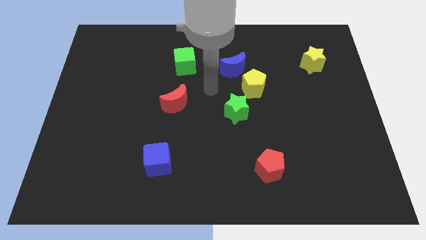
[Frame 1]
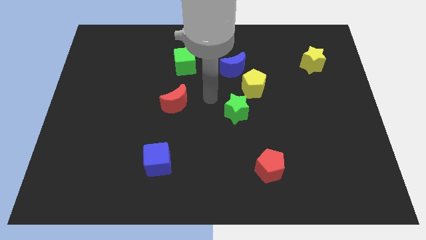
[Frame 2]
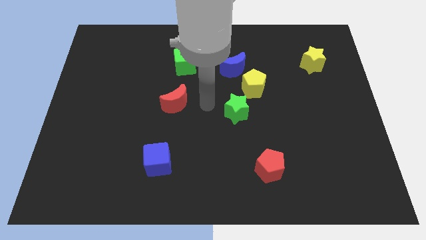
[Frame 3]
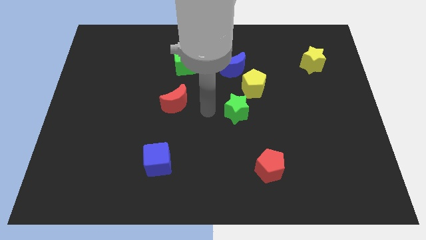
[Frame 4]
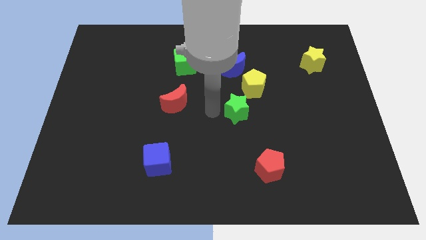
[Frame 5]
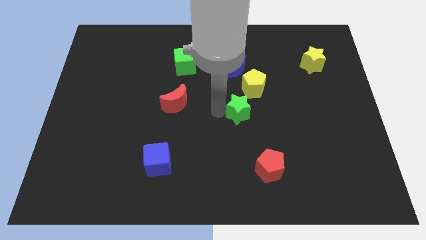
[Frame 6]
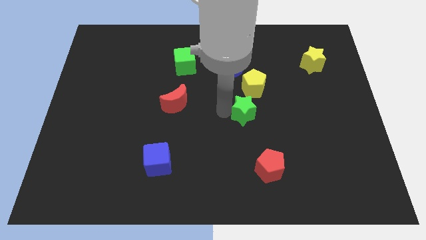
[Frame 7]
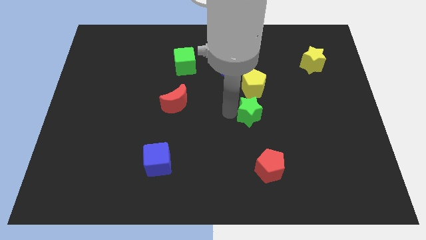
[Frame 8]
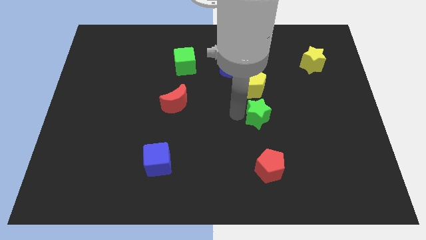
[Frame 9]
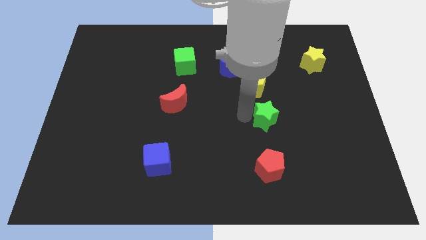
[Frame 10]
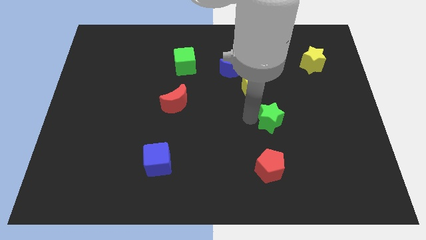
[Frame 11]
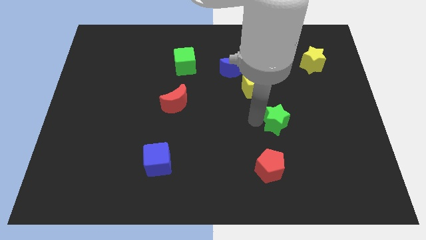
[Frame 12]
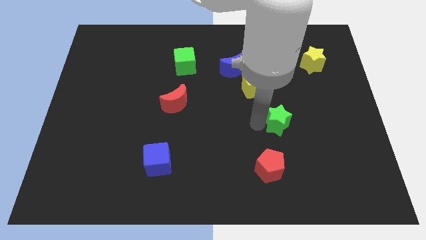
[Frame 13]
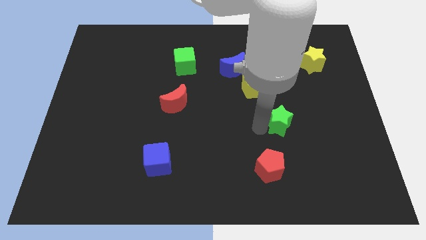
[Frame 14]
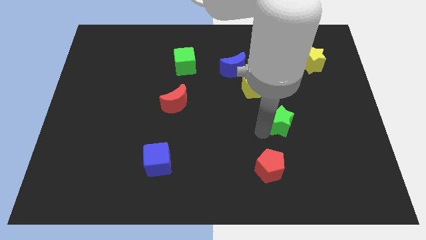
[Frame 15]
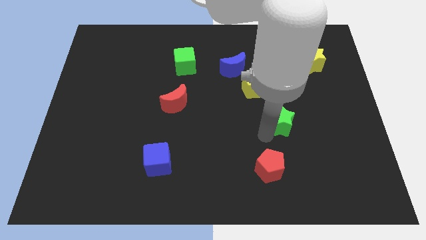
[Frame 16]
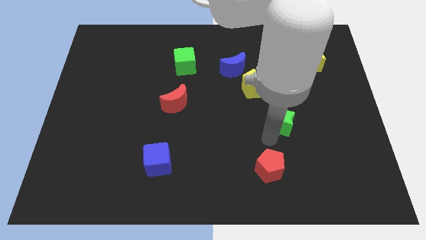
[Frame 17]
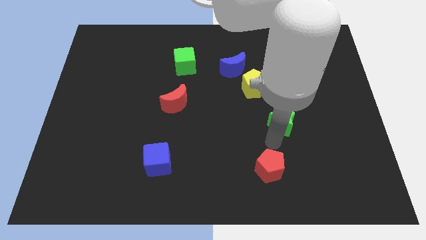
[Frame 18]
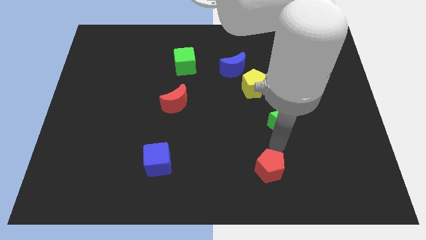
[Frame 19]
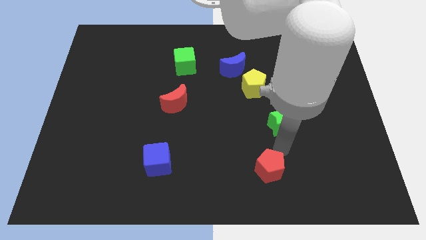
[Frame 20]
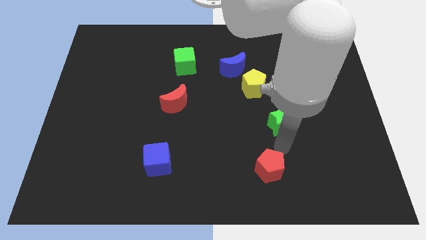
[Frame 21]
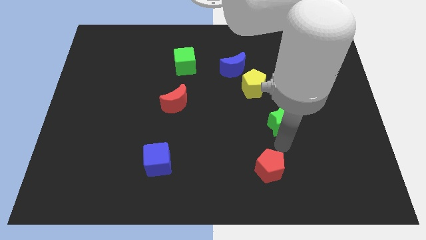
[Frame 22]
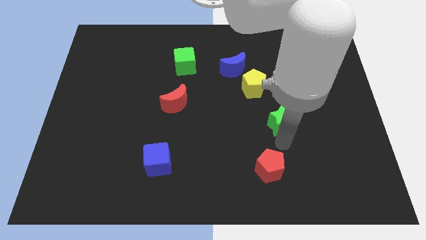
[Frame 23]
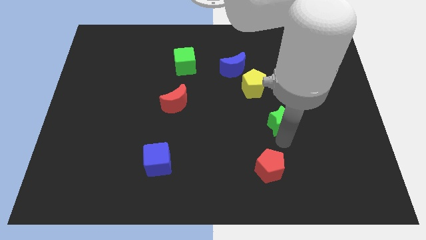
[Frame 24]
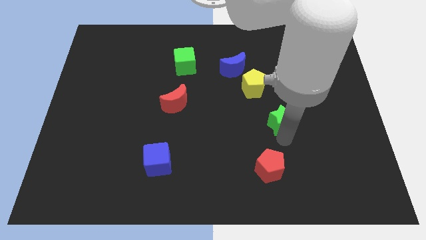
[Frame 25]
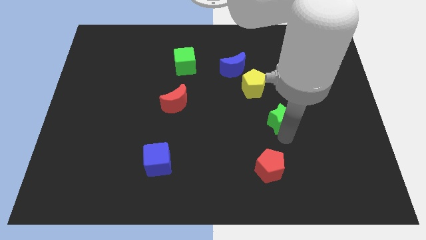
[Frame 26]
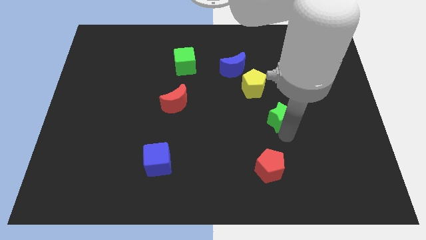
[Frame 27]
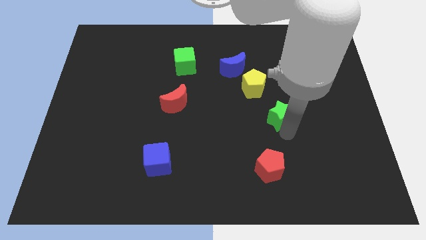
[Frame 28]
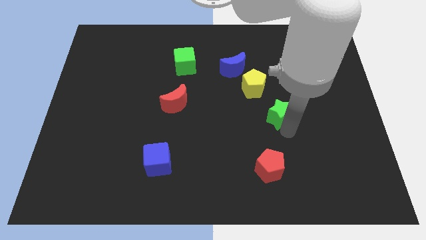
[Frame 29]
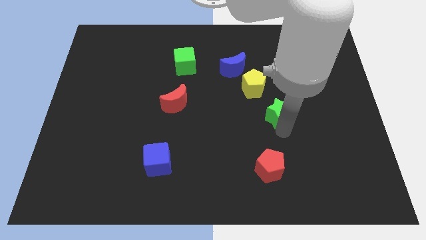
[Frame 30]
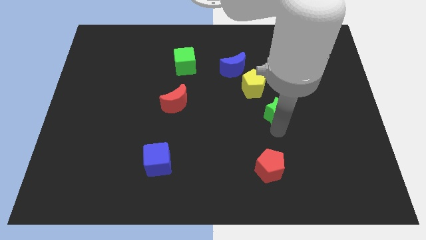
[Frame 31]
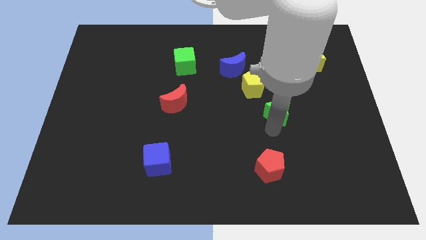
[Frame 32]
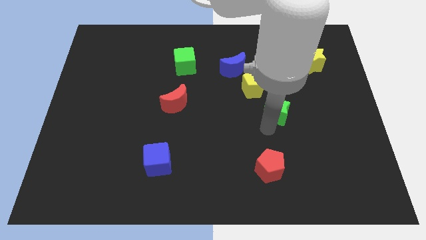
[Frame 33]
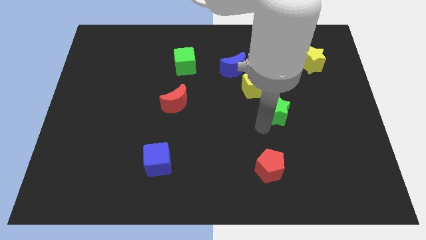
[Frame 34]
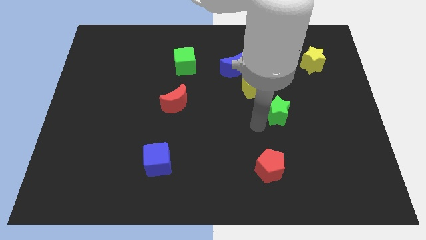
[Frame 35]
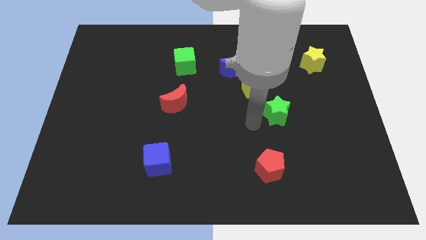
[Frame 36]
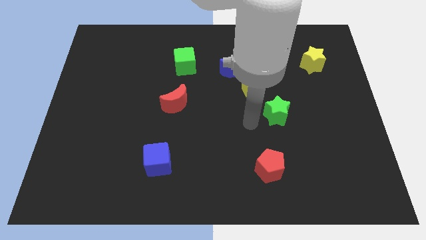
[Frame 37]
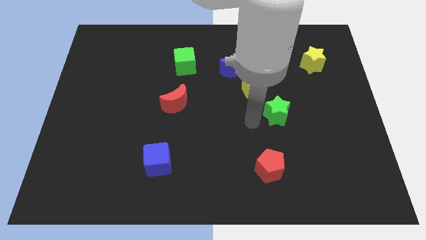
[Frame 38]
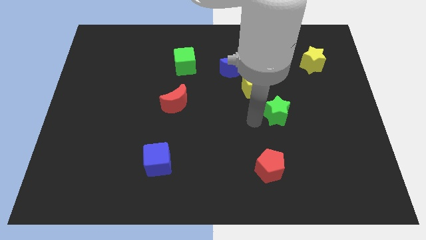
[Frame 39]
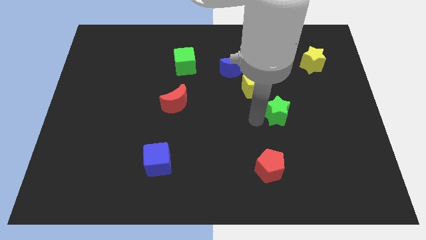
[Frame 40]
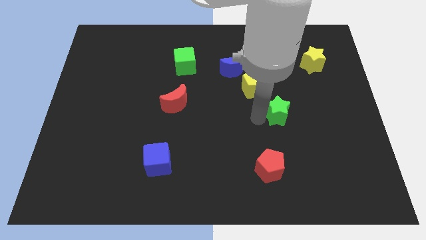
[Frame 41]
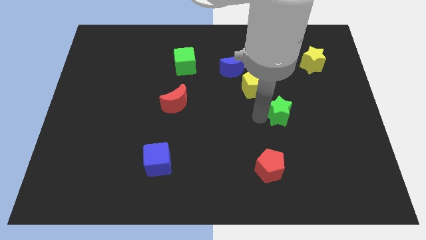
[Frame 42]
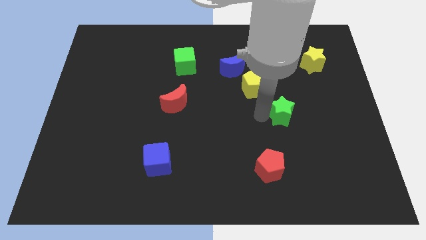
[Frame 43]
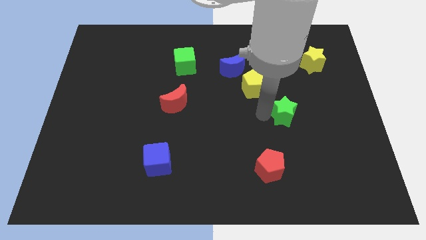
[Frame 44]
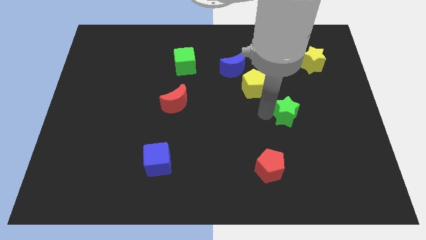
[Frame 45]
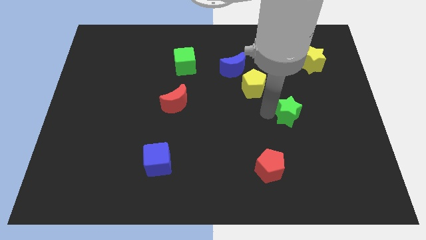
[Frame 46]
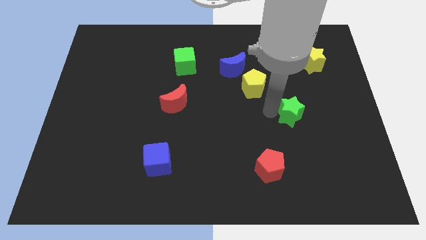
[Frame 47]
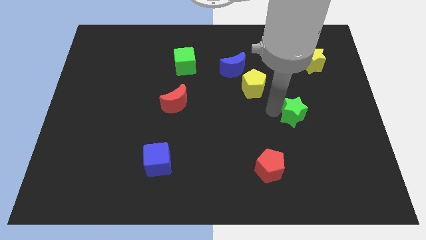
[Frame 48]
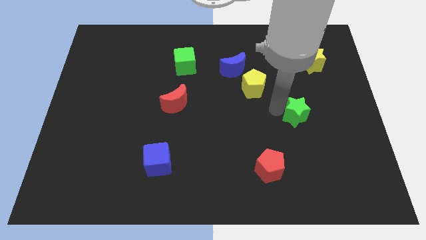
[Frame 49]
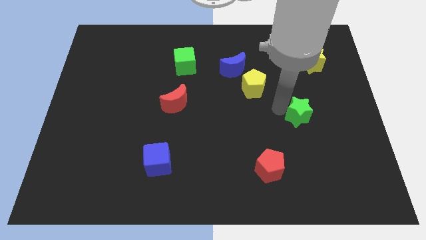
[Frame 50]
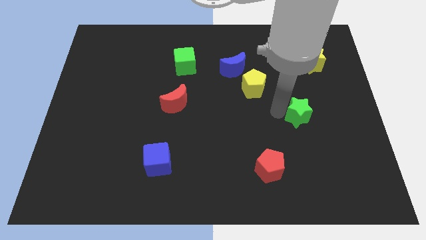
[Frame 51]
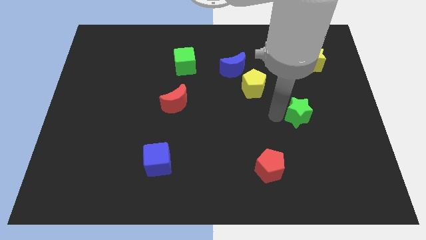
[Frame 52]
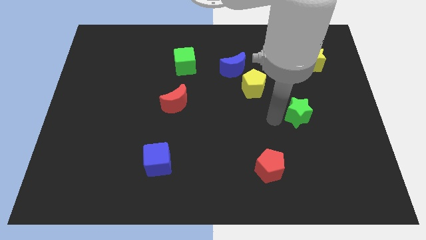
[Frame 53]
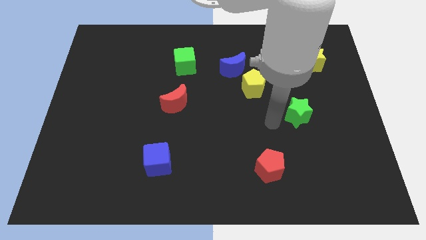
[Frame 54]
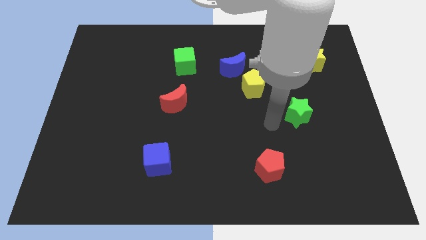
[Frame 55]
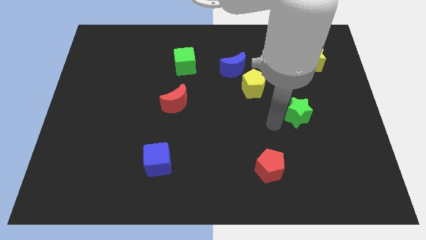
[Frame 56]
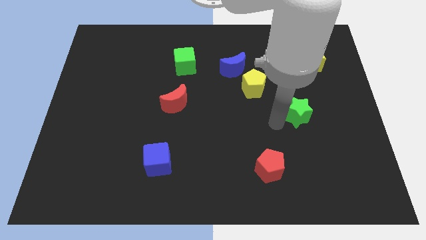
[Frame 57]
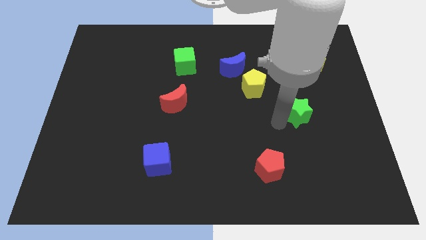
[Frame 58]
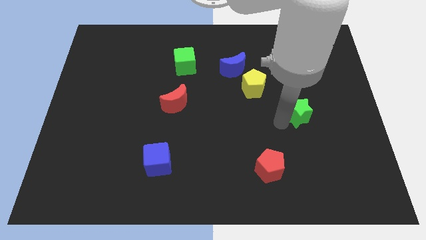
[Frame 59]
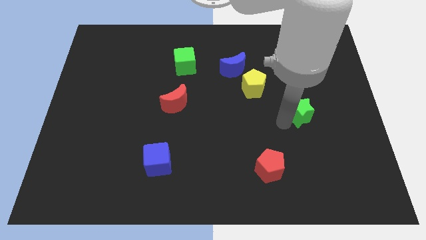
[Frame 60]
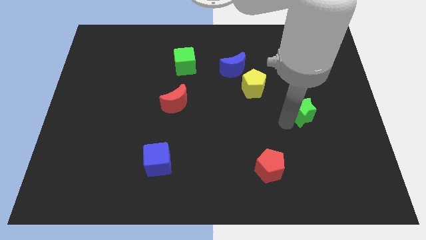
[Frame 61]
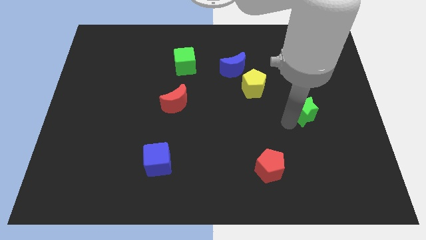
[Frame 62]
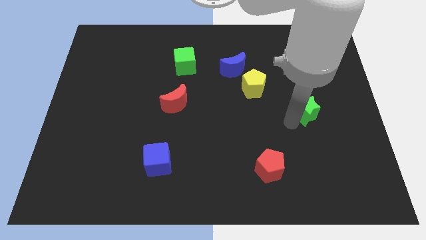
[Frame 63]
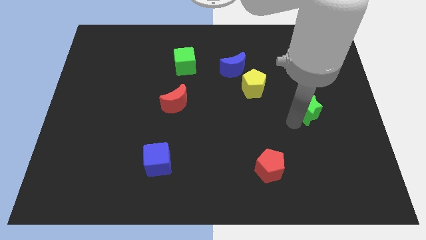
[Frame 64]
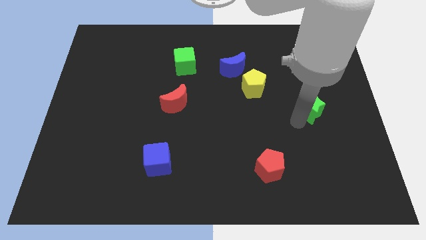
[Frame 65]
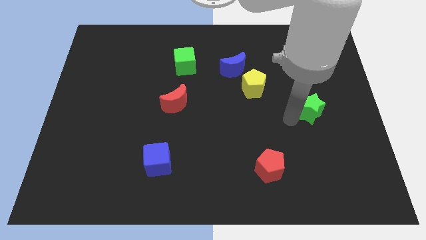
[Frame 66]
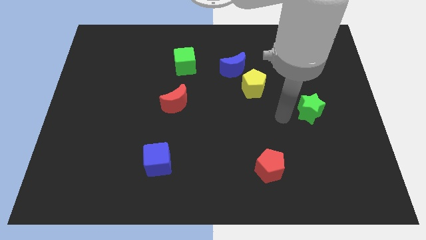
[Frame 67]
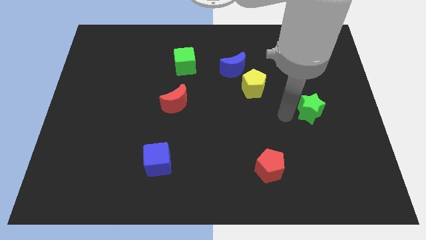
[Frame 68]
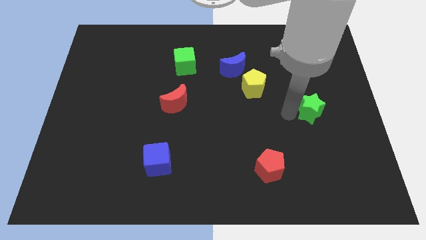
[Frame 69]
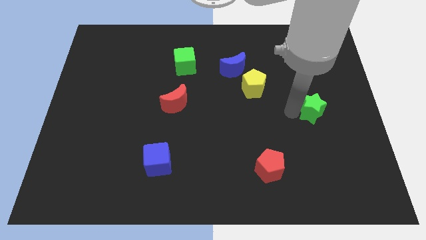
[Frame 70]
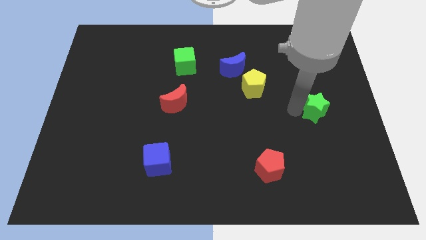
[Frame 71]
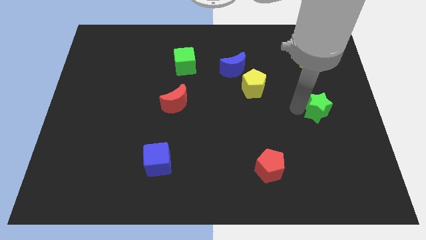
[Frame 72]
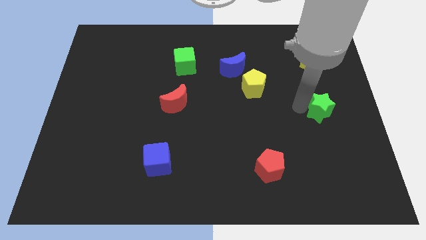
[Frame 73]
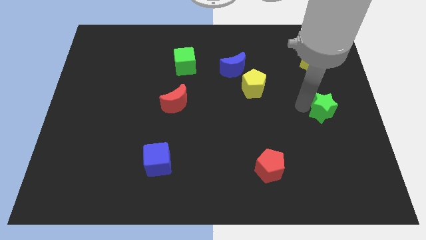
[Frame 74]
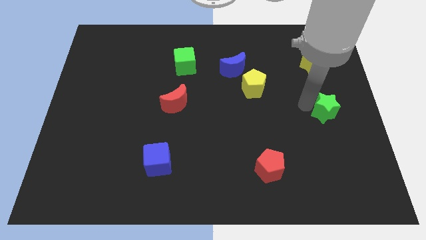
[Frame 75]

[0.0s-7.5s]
slide the green star to the right side
